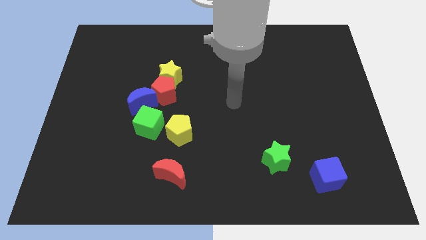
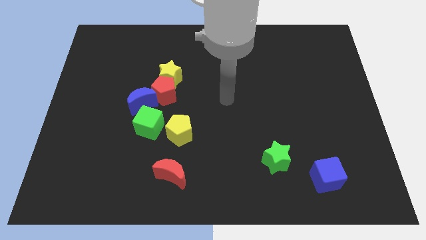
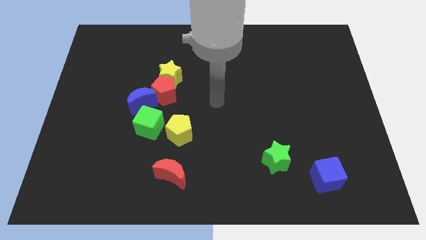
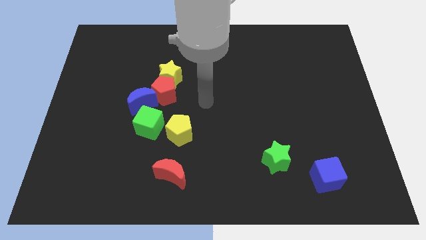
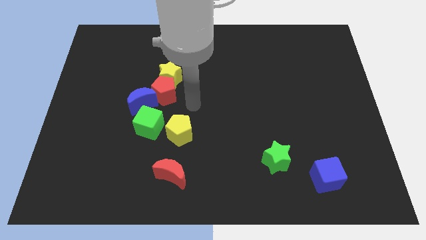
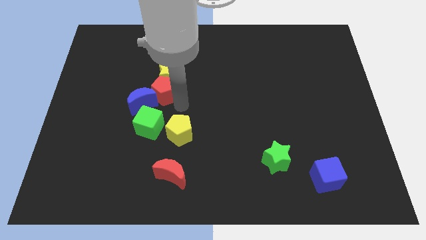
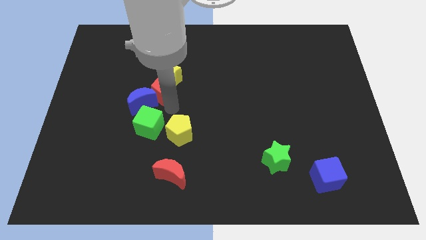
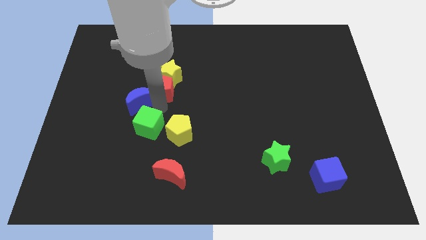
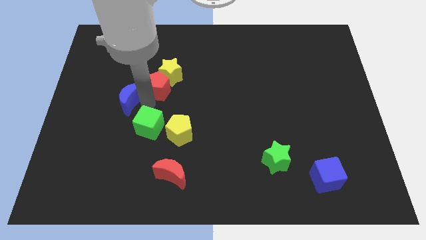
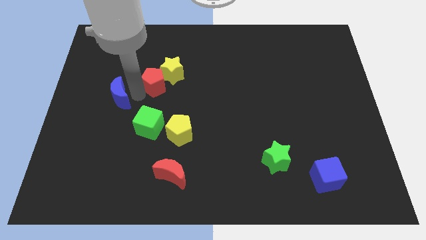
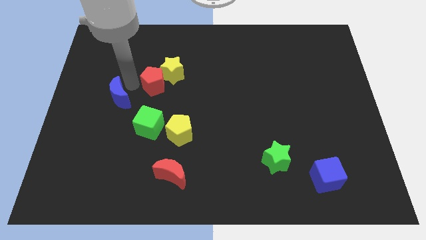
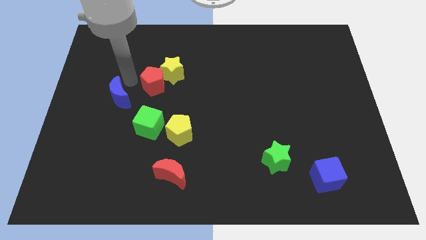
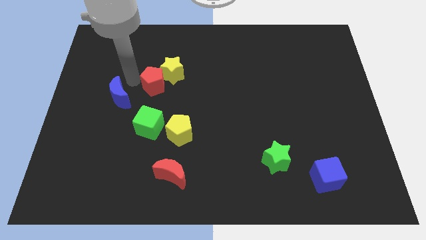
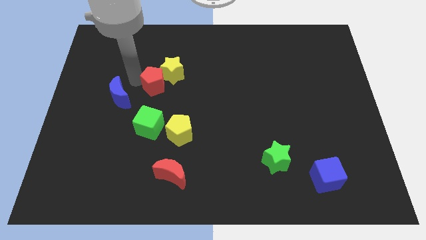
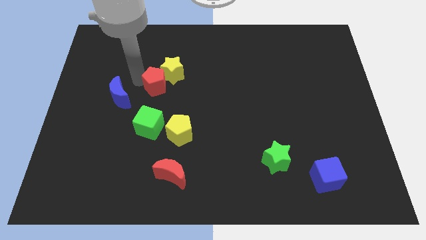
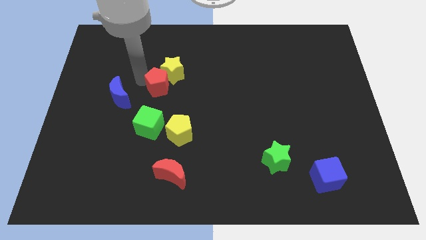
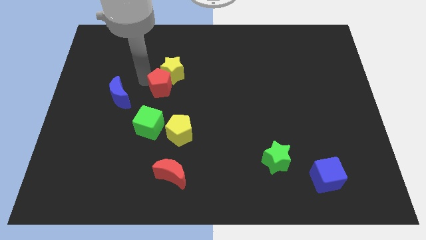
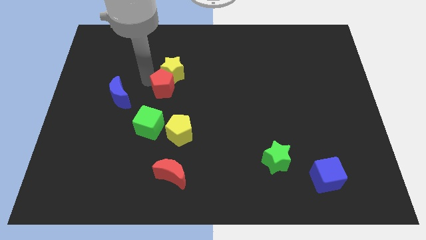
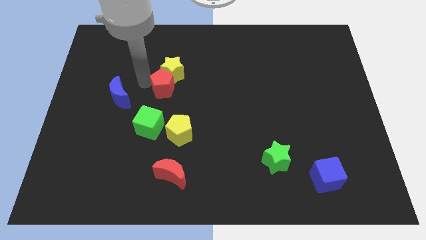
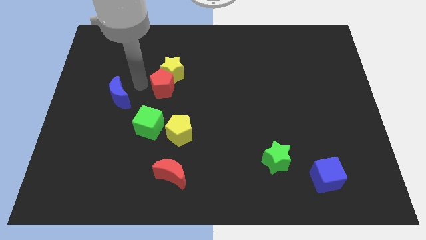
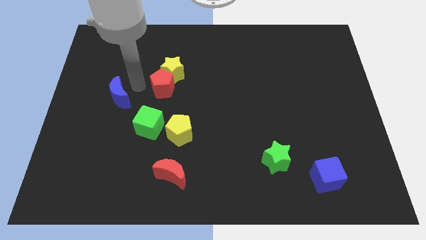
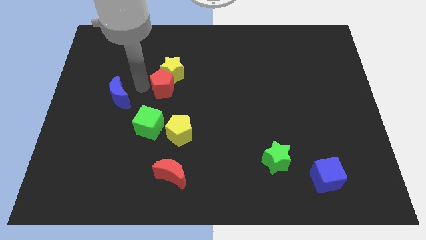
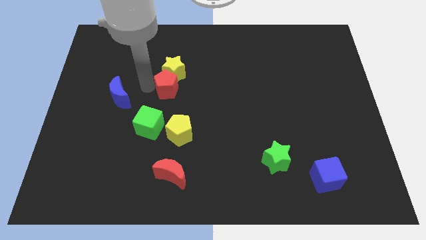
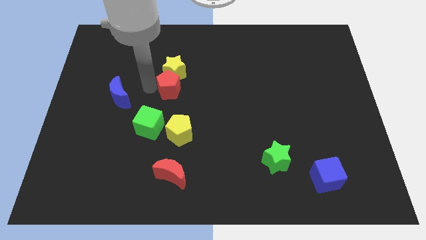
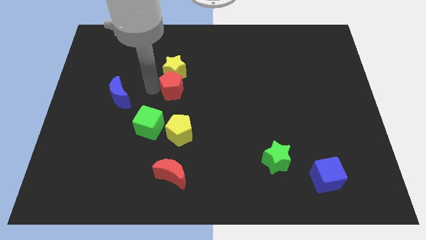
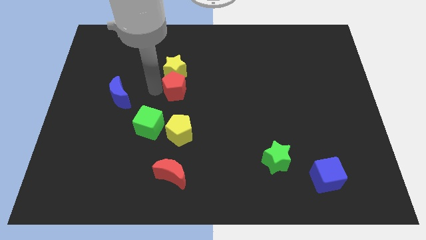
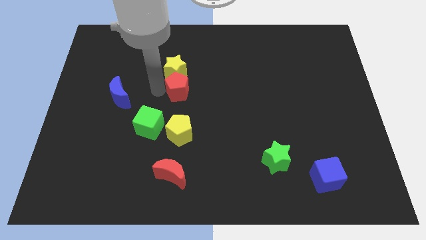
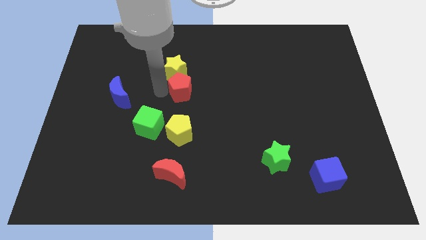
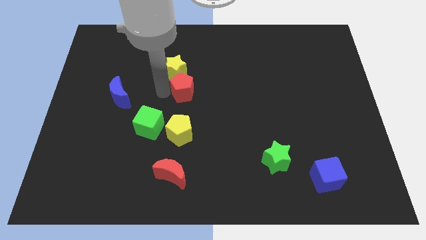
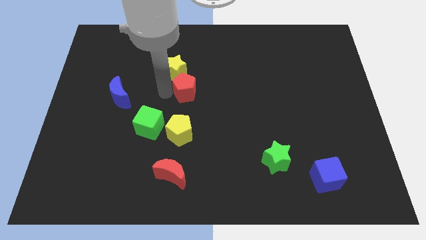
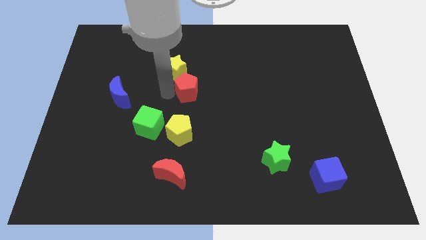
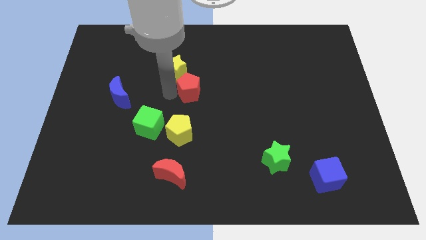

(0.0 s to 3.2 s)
move the red pentagon away from the yellow star, blue moon, and green cube

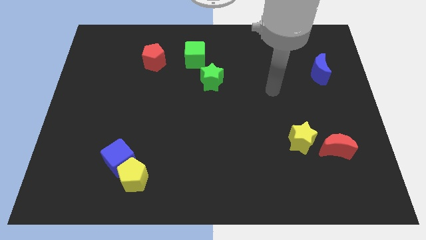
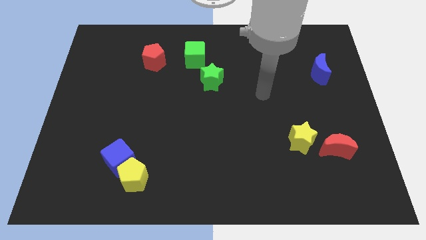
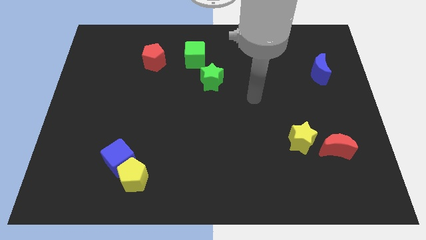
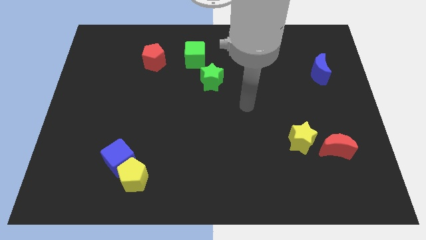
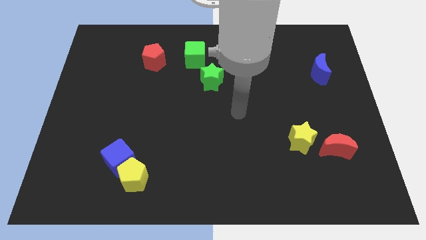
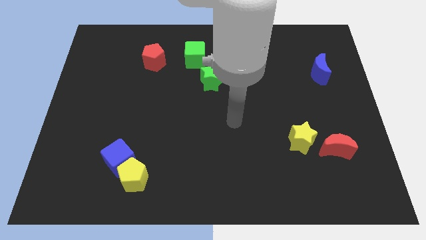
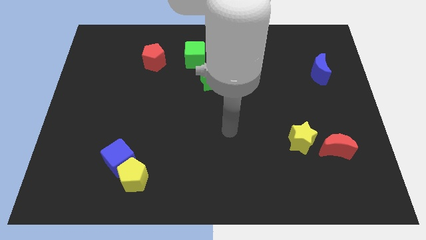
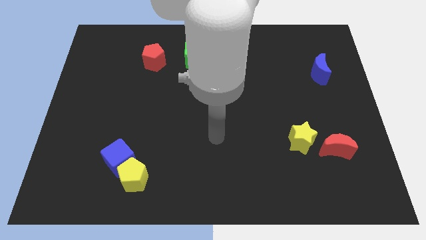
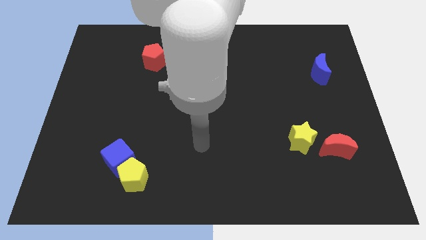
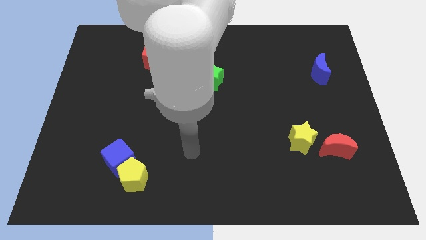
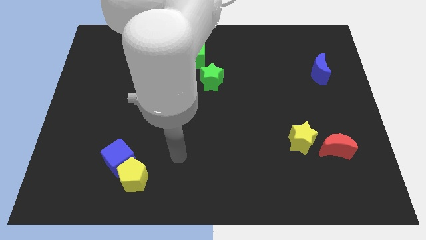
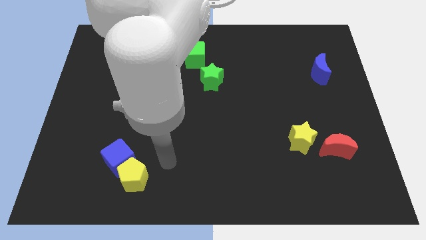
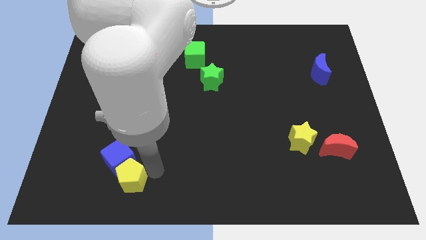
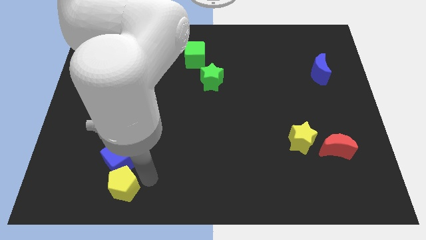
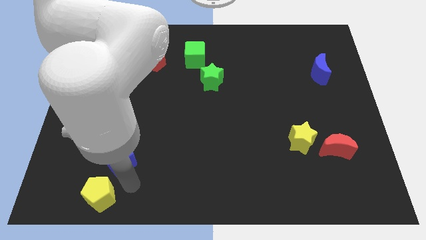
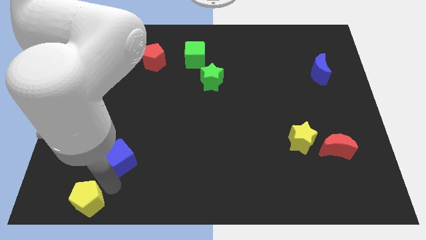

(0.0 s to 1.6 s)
separate the blue cube from the yellow pentagon

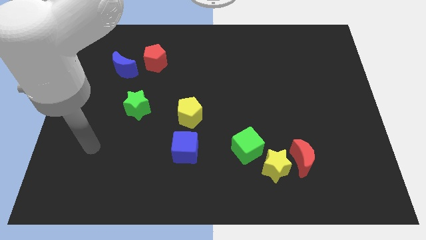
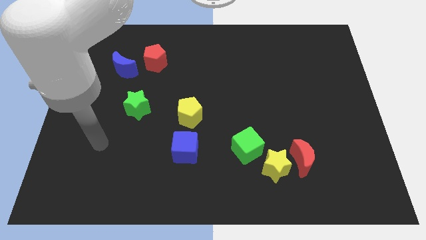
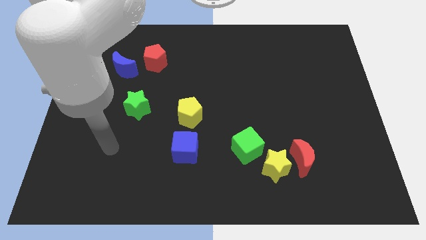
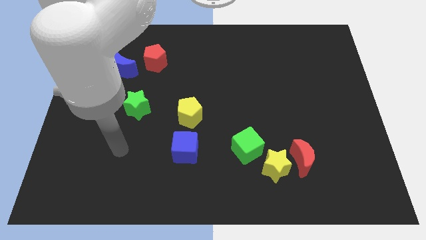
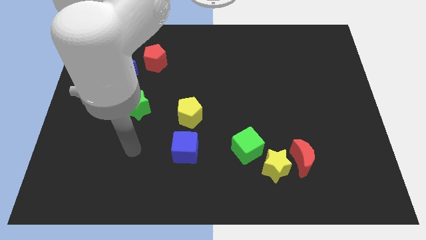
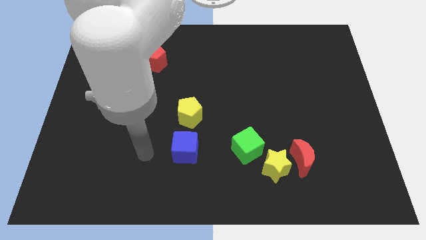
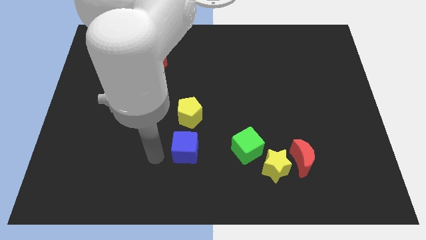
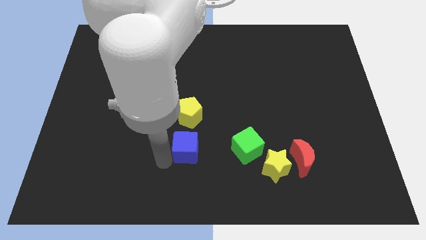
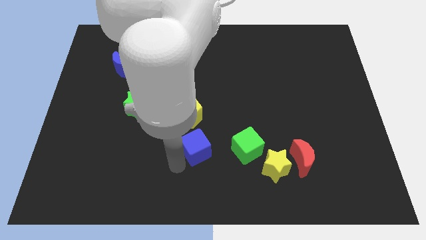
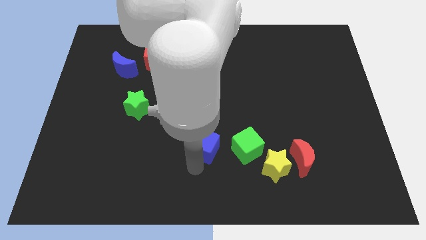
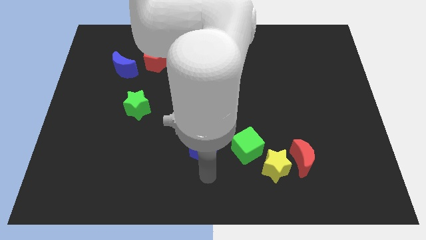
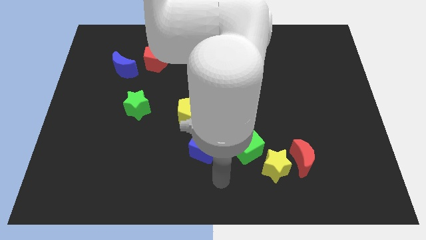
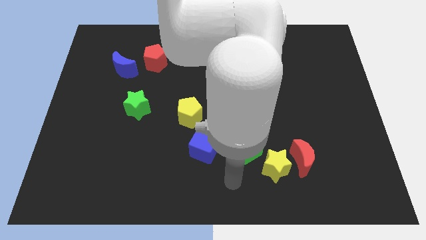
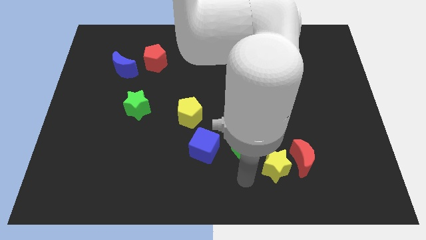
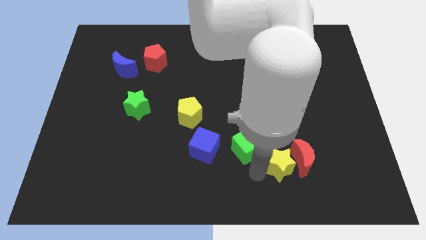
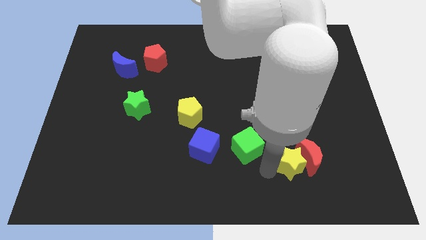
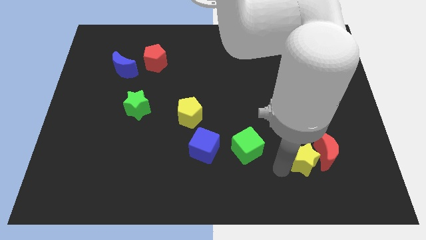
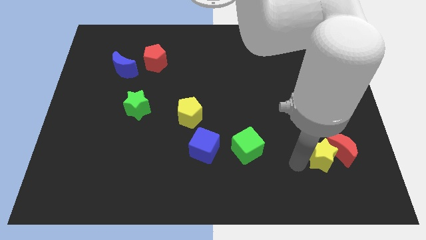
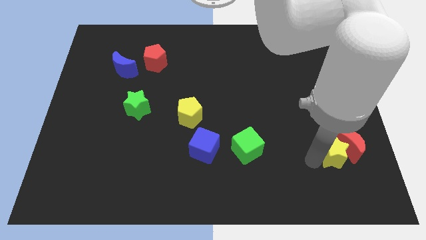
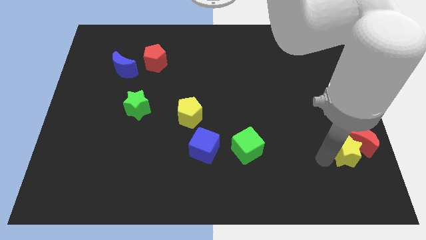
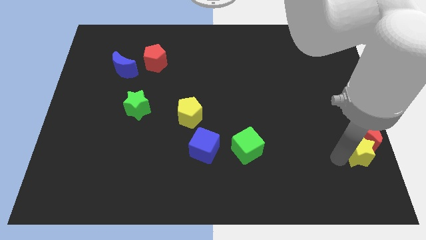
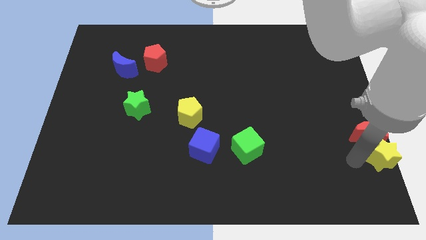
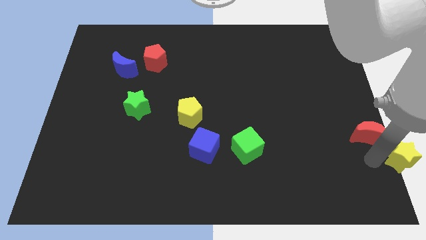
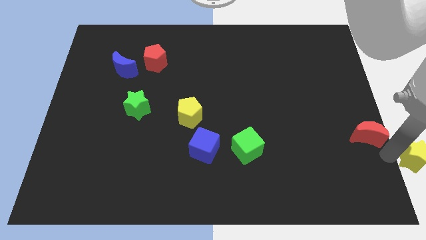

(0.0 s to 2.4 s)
pull the red moon apart from the yellow star

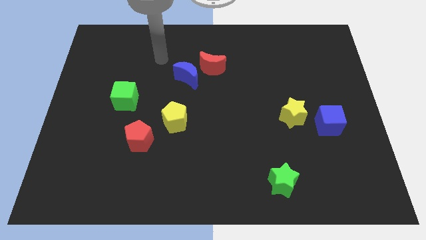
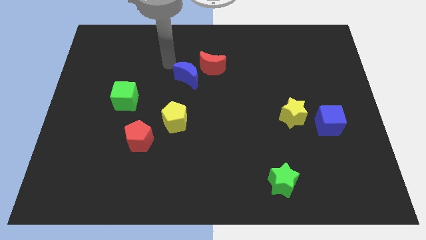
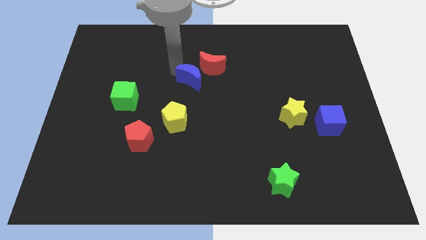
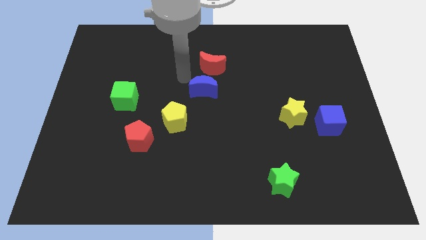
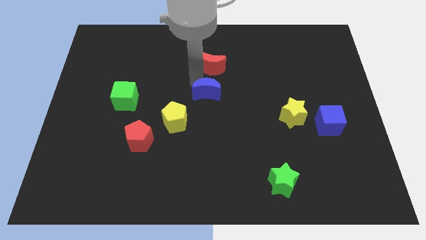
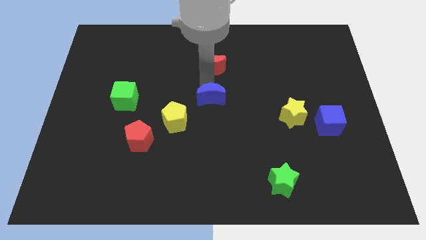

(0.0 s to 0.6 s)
separate the red moon from the blue moon

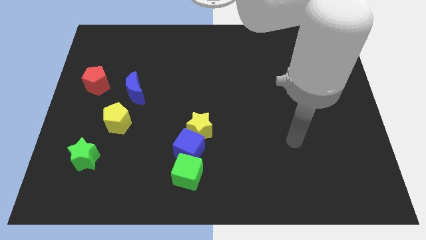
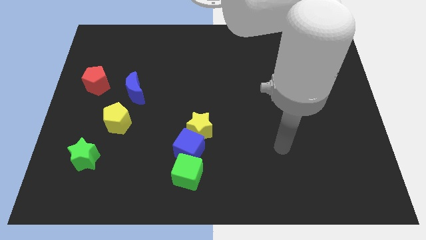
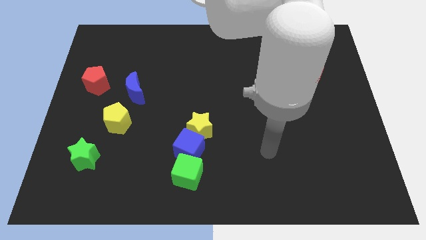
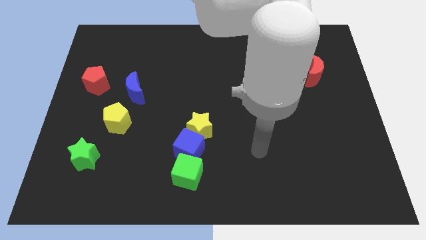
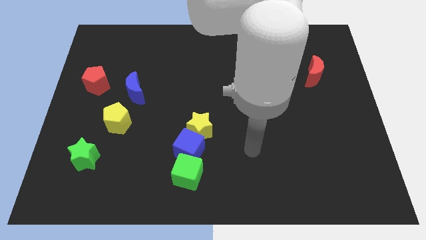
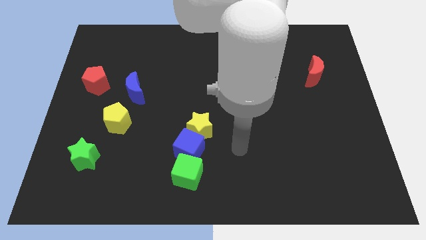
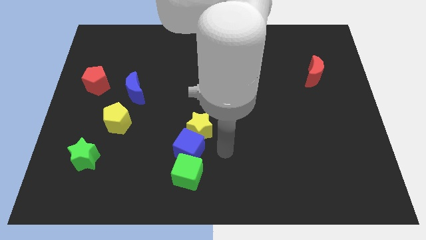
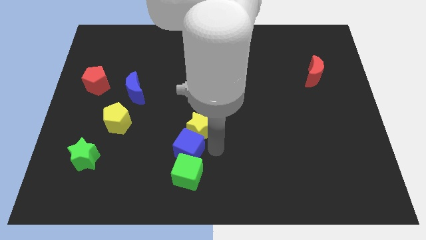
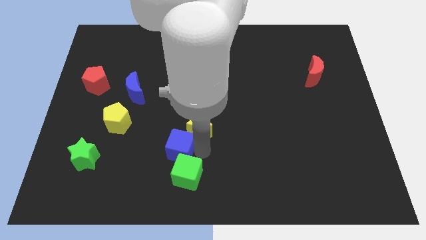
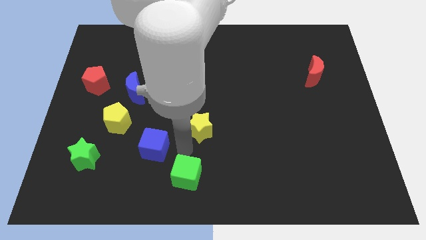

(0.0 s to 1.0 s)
move the yellow star away from the blue cube

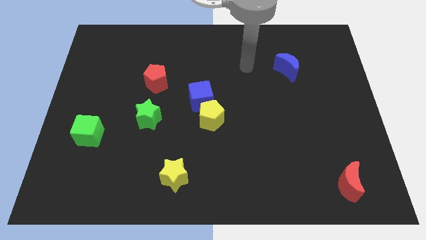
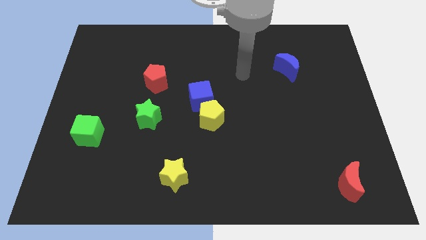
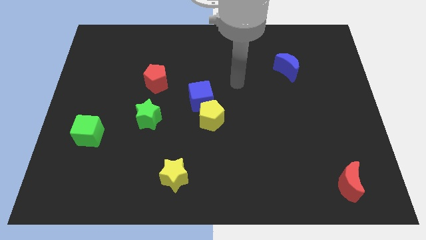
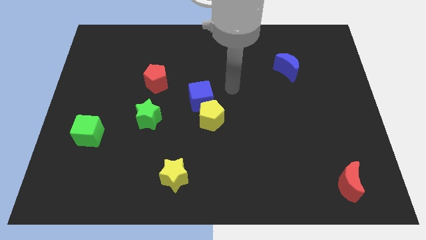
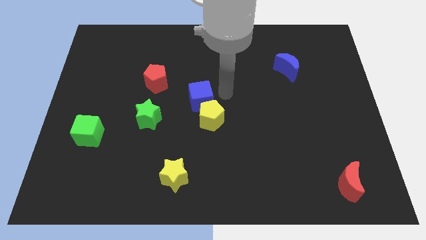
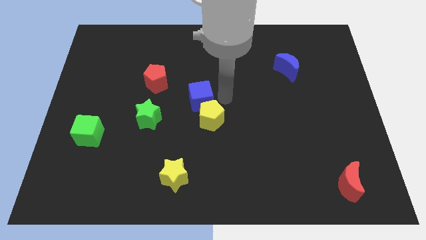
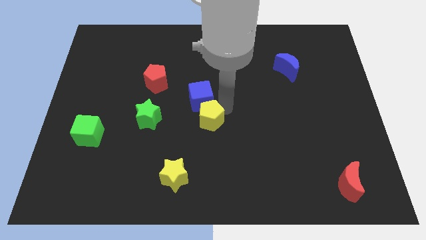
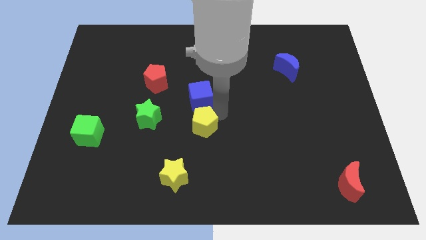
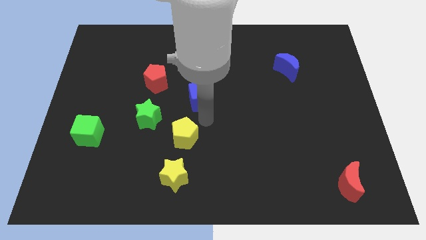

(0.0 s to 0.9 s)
pull the blue cube apart from the yellow pentagon
